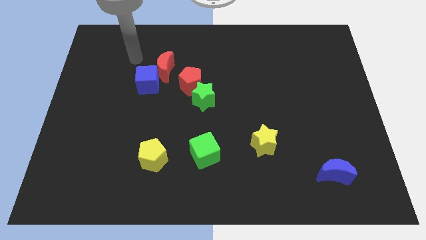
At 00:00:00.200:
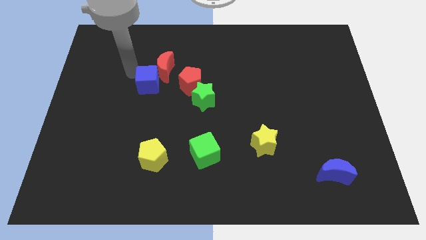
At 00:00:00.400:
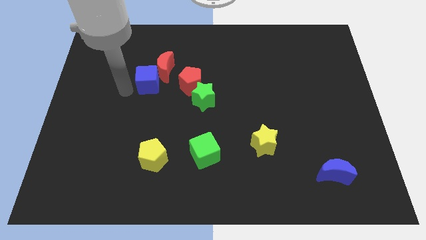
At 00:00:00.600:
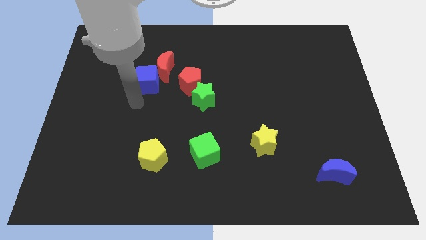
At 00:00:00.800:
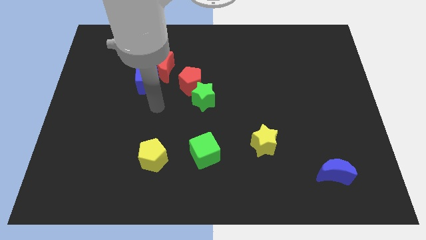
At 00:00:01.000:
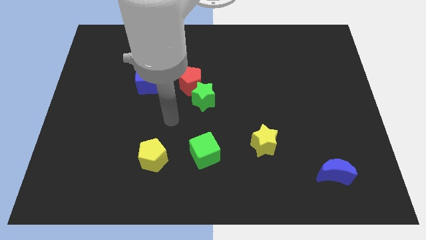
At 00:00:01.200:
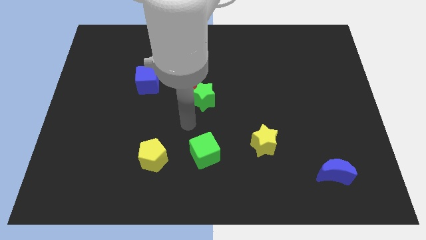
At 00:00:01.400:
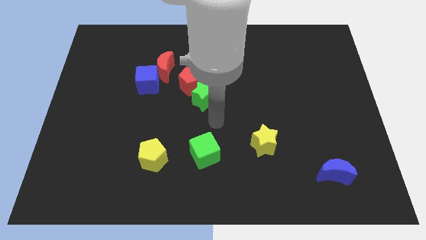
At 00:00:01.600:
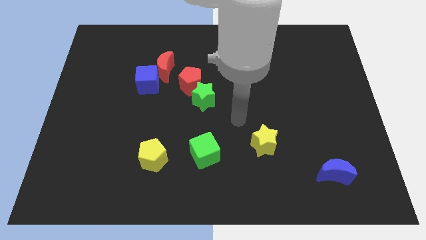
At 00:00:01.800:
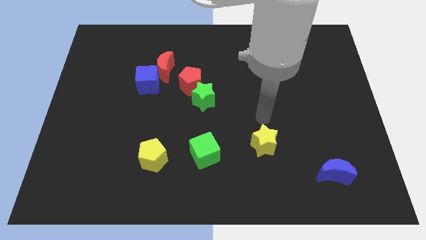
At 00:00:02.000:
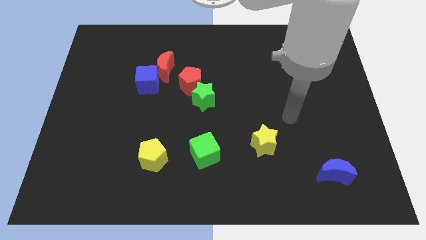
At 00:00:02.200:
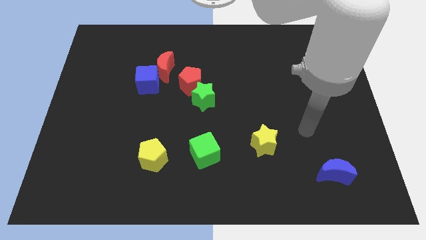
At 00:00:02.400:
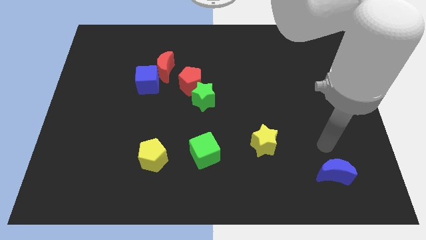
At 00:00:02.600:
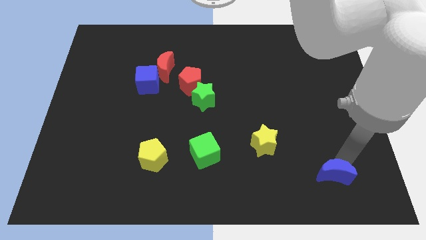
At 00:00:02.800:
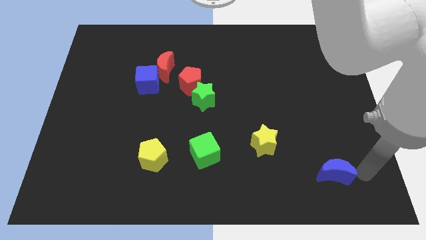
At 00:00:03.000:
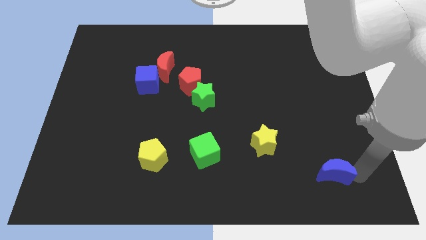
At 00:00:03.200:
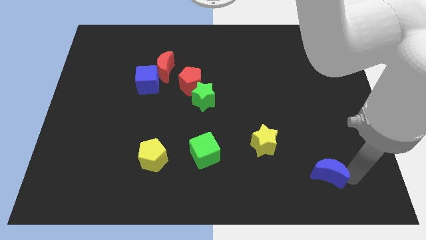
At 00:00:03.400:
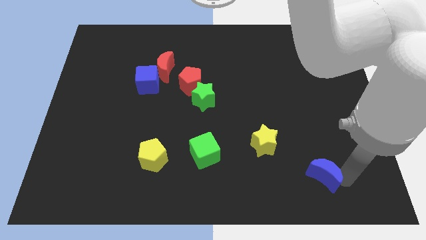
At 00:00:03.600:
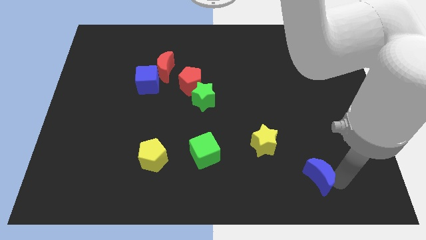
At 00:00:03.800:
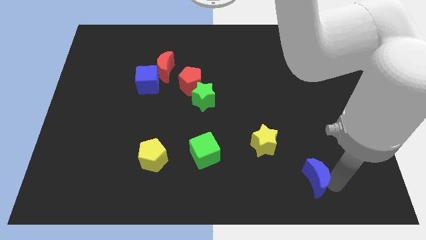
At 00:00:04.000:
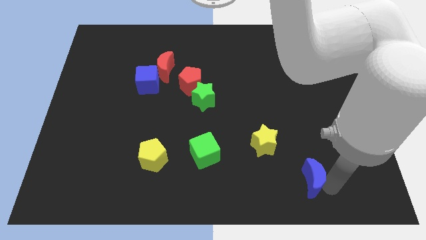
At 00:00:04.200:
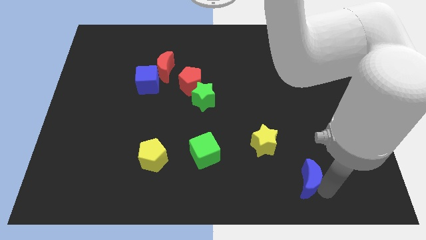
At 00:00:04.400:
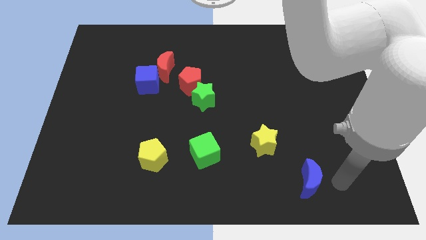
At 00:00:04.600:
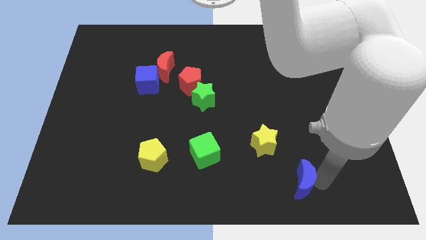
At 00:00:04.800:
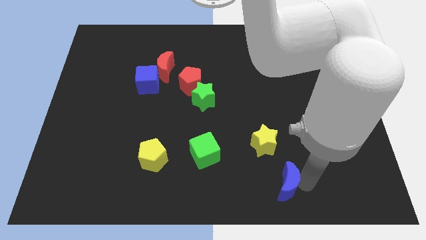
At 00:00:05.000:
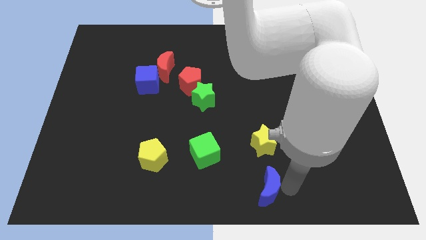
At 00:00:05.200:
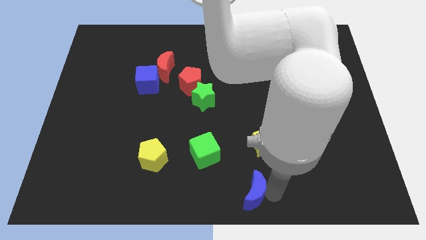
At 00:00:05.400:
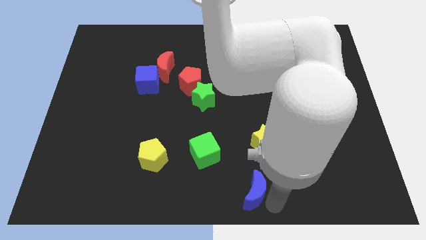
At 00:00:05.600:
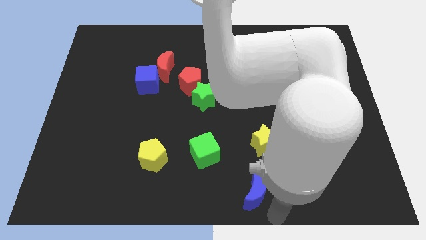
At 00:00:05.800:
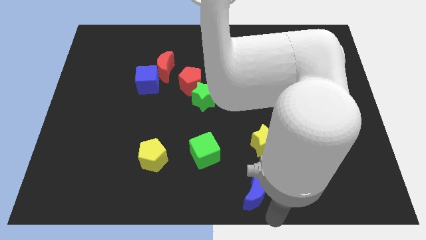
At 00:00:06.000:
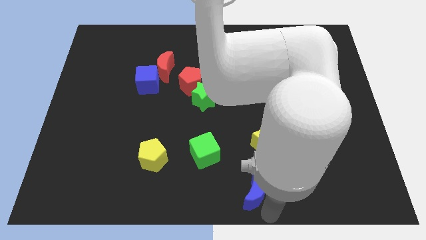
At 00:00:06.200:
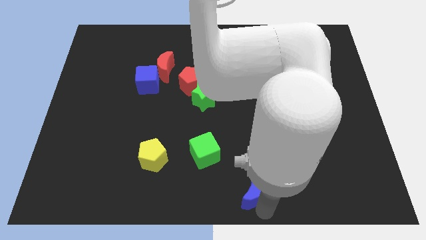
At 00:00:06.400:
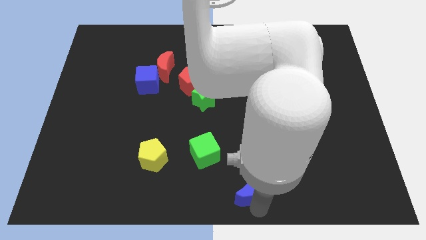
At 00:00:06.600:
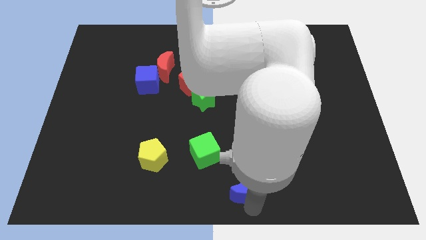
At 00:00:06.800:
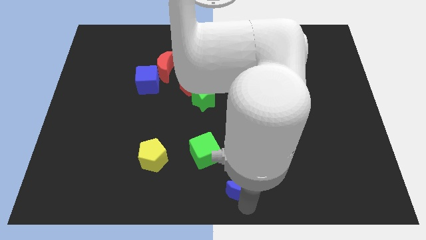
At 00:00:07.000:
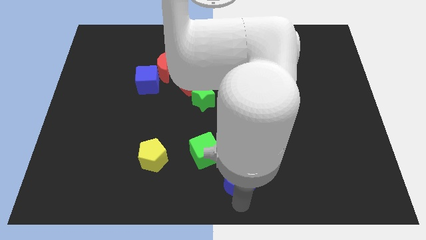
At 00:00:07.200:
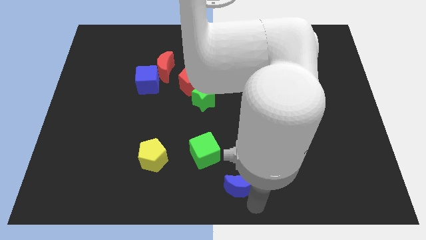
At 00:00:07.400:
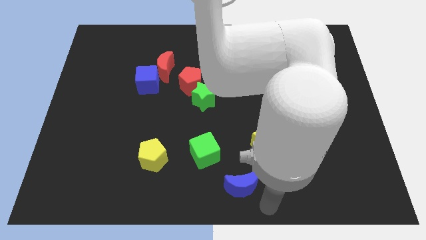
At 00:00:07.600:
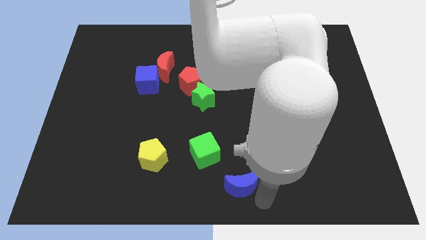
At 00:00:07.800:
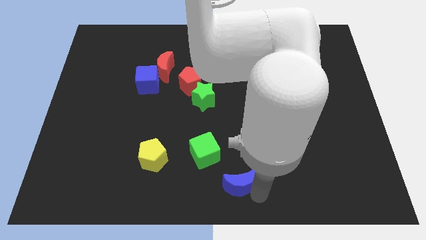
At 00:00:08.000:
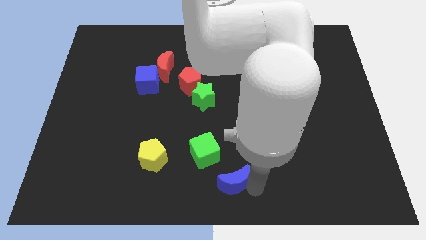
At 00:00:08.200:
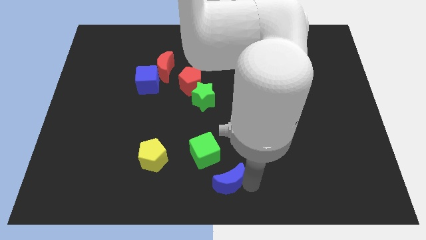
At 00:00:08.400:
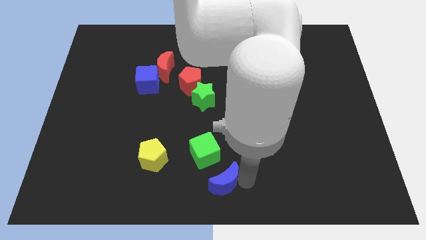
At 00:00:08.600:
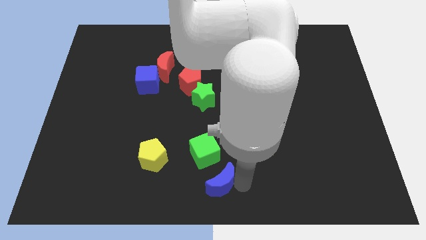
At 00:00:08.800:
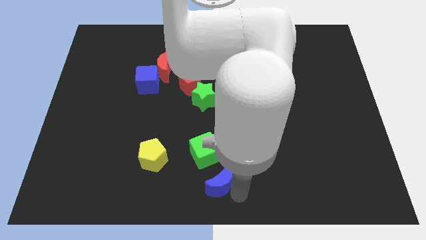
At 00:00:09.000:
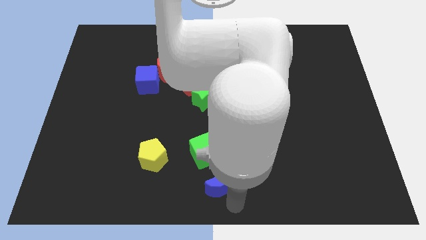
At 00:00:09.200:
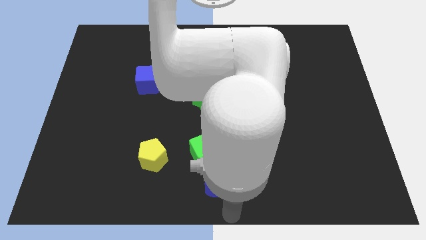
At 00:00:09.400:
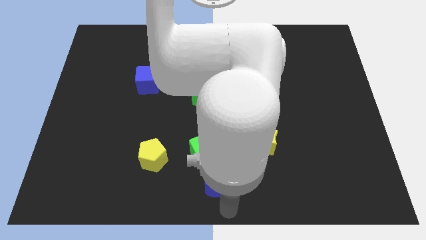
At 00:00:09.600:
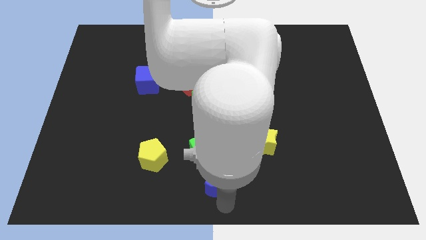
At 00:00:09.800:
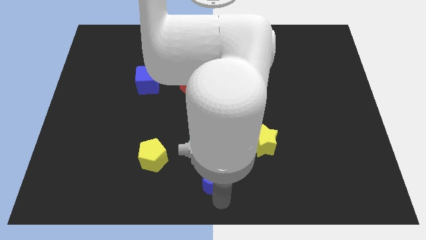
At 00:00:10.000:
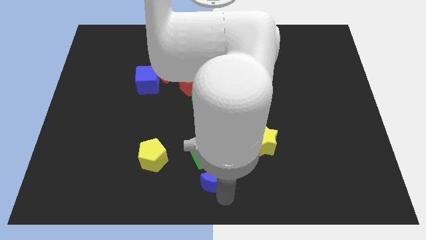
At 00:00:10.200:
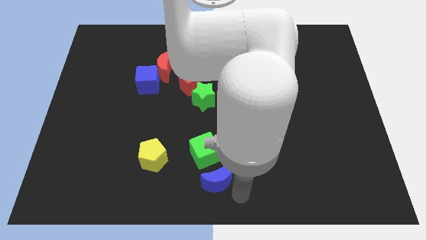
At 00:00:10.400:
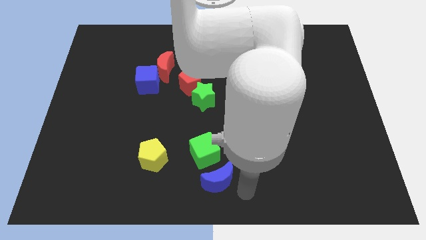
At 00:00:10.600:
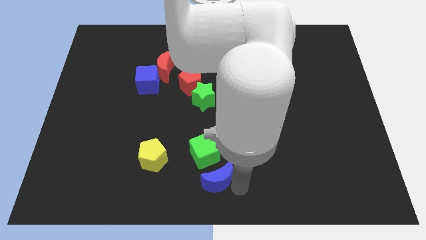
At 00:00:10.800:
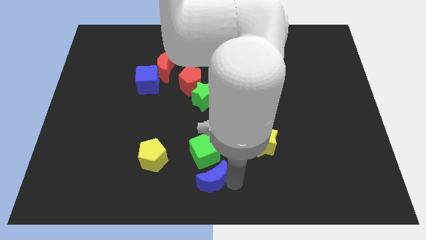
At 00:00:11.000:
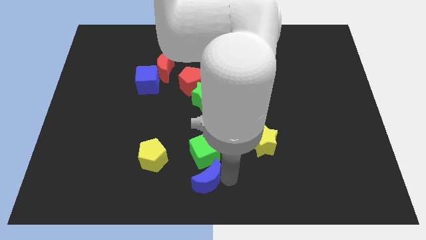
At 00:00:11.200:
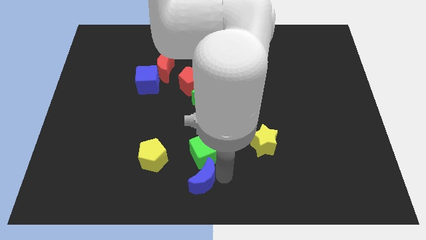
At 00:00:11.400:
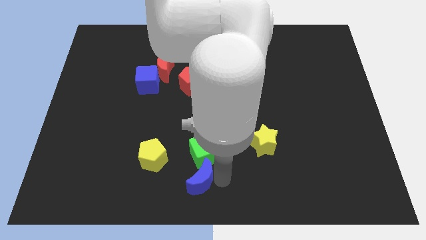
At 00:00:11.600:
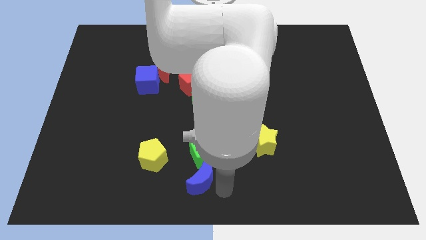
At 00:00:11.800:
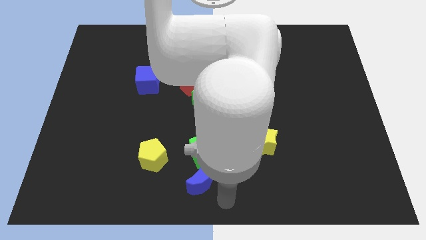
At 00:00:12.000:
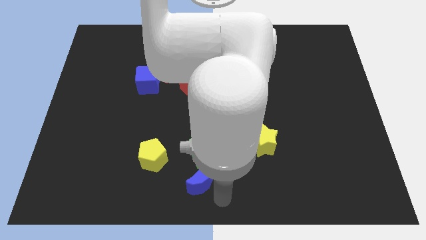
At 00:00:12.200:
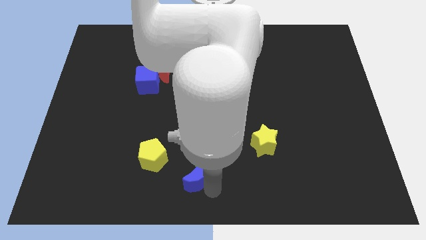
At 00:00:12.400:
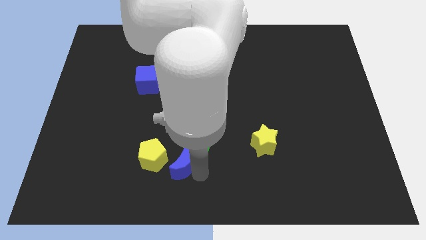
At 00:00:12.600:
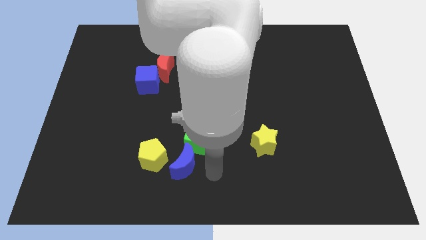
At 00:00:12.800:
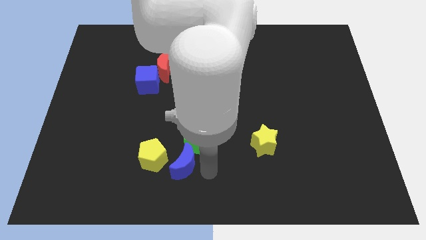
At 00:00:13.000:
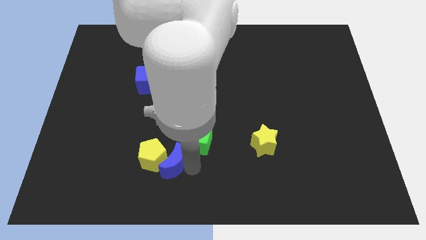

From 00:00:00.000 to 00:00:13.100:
slide the blue moon to the yellow pentagon
